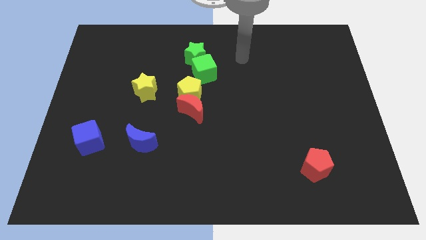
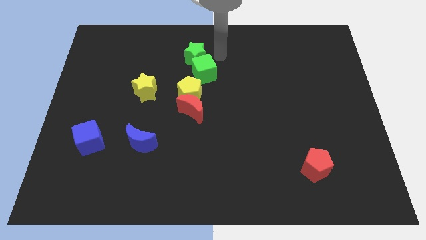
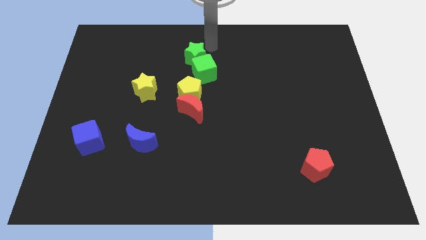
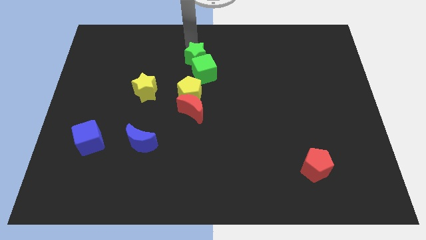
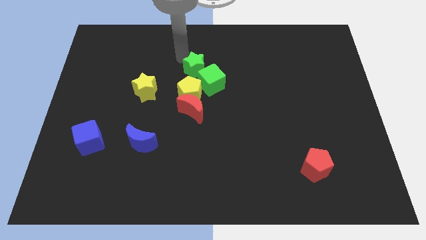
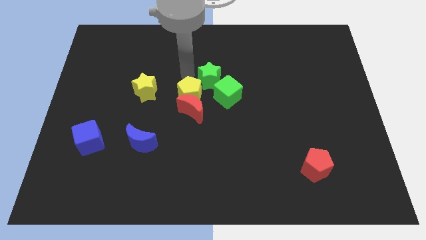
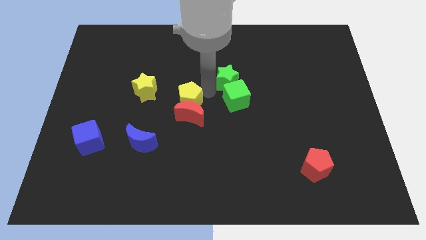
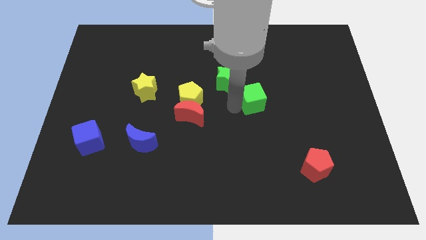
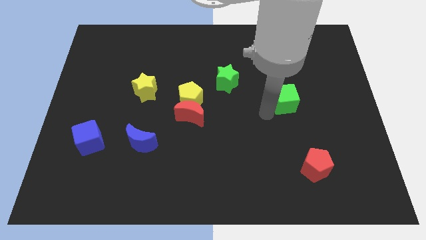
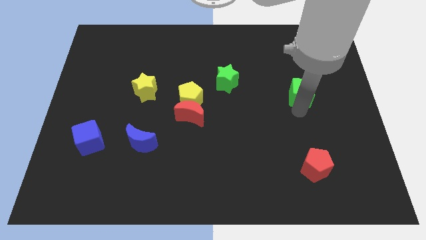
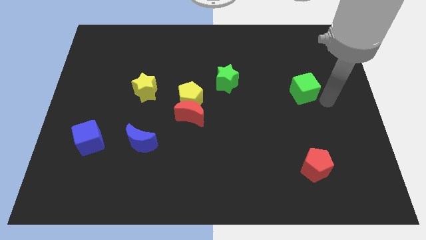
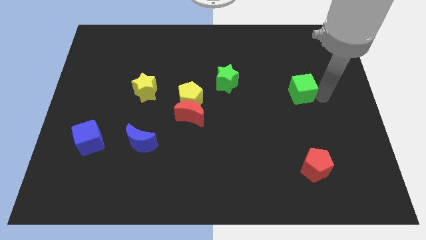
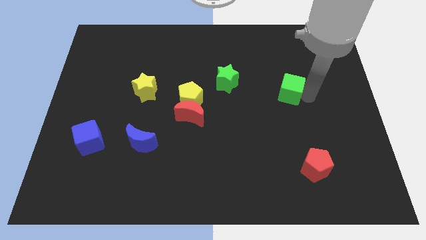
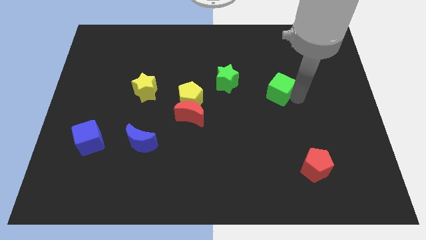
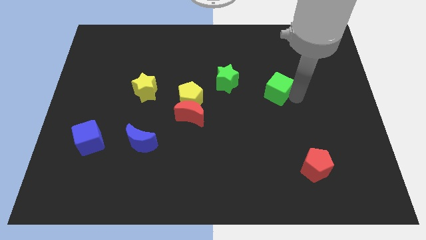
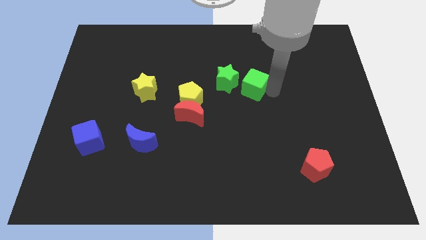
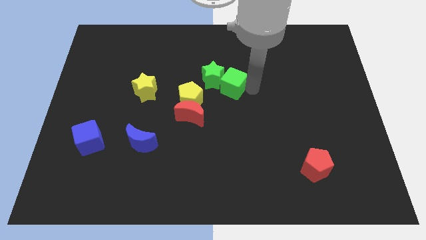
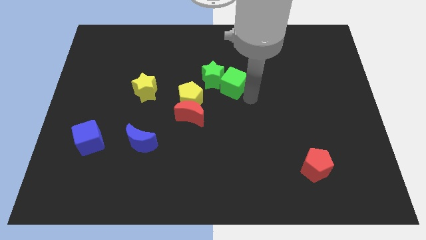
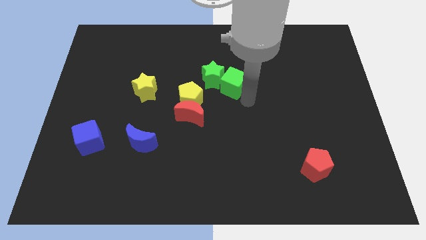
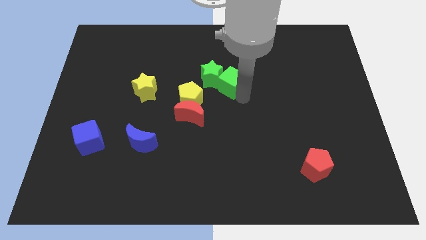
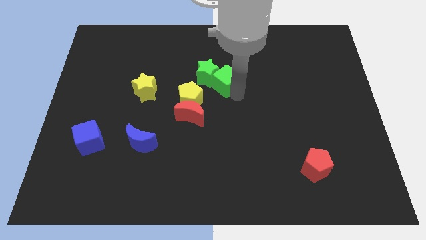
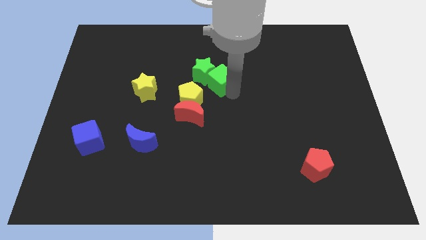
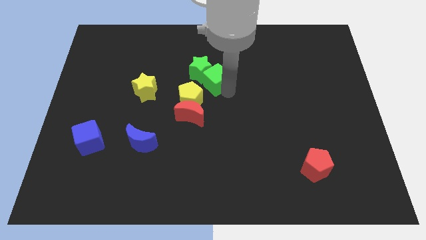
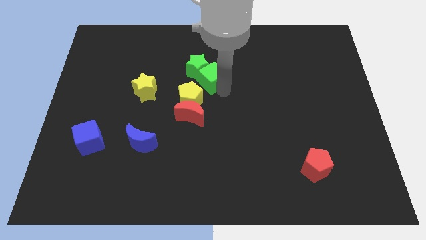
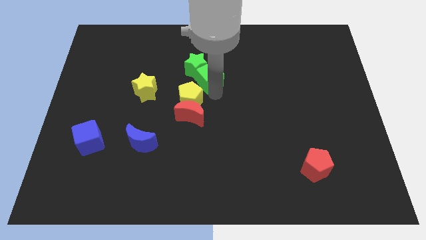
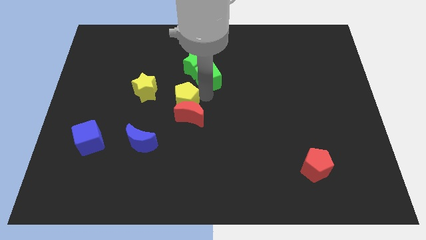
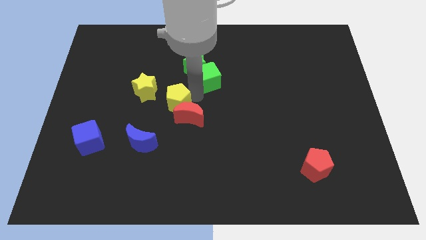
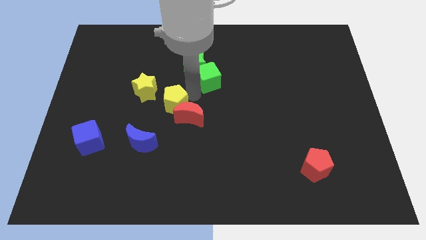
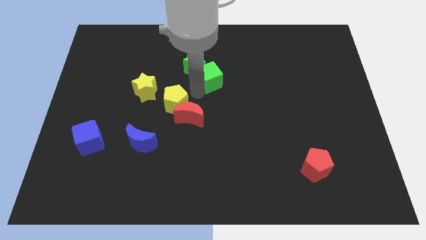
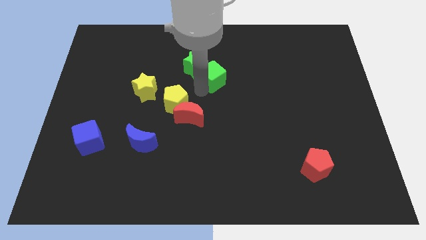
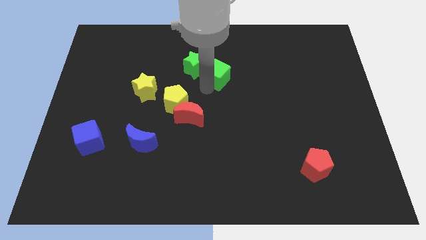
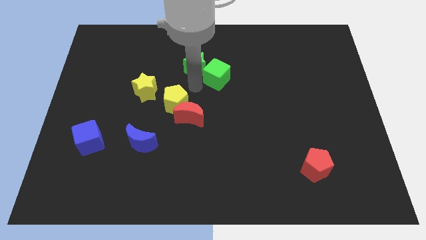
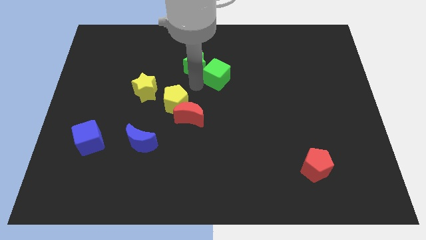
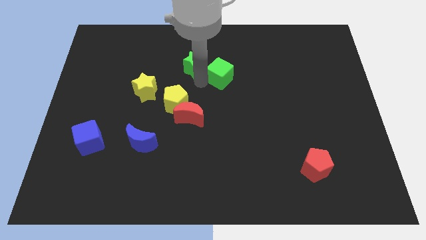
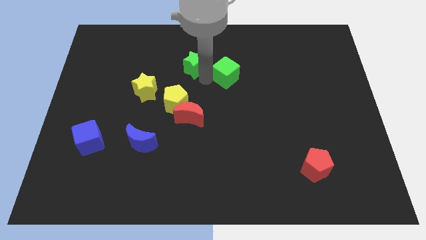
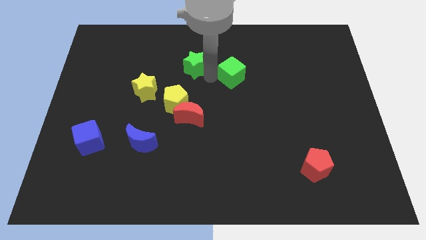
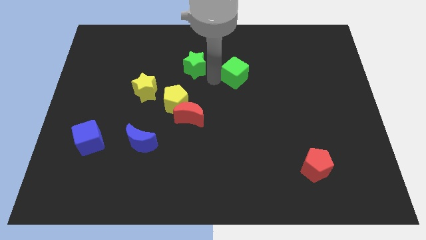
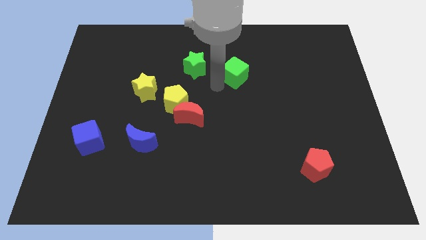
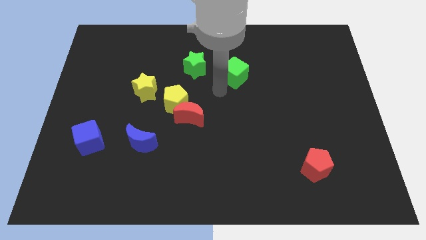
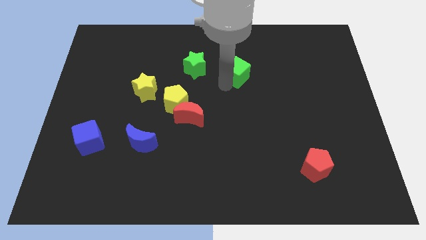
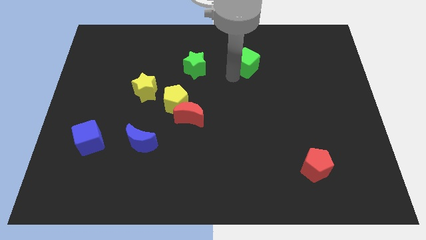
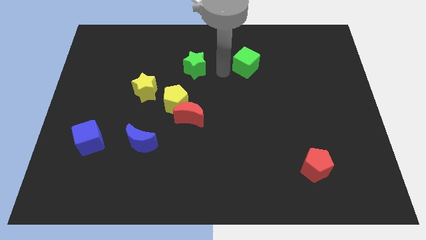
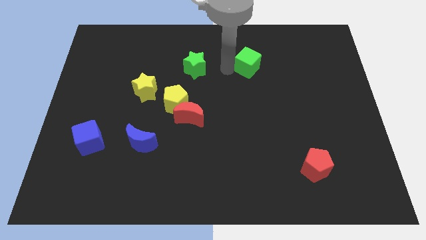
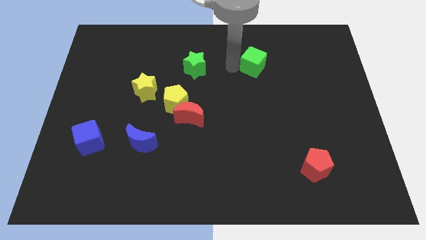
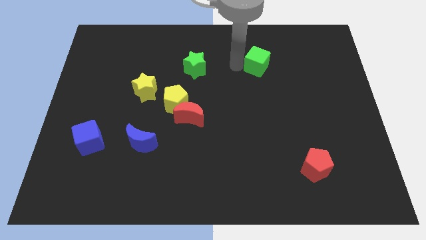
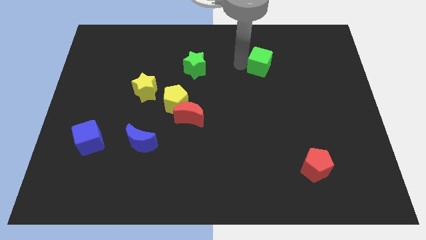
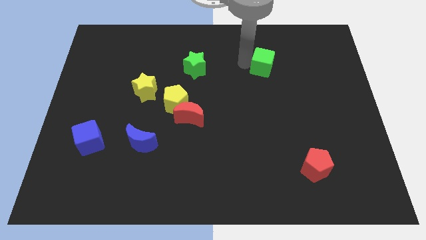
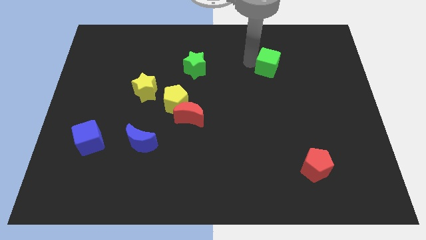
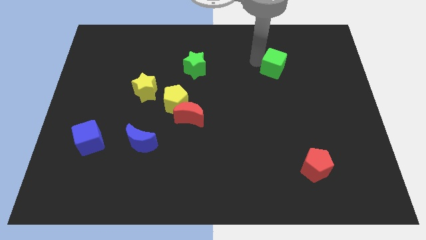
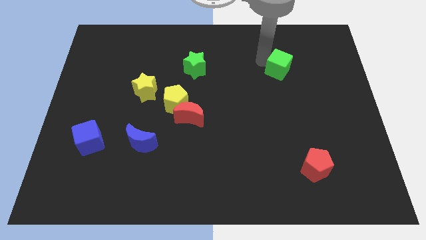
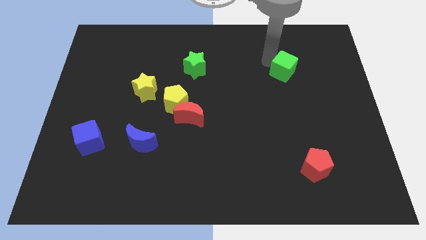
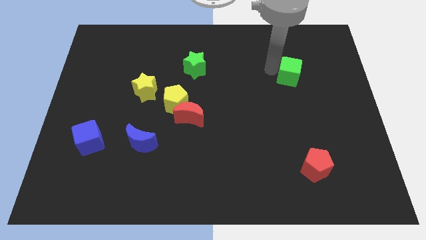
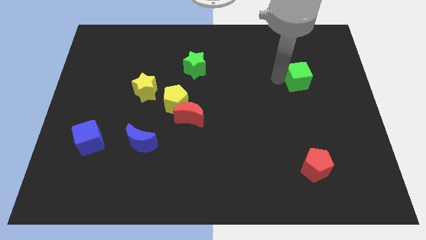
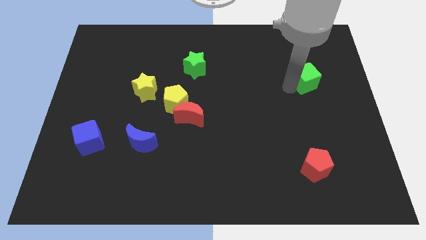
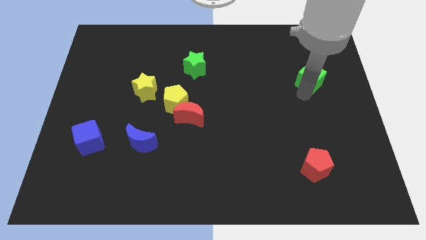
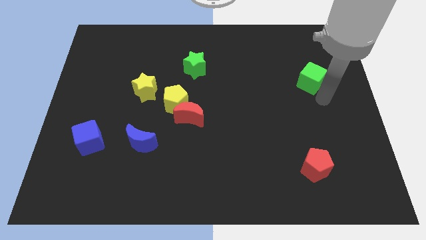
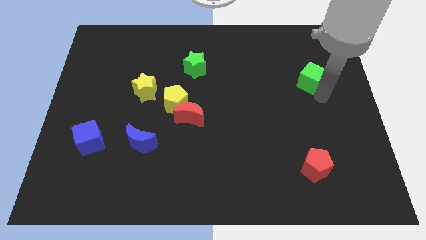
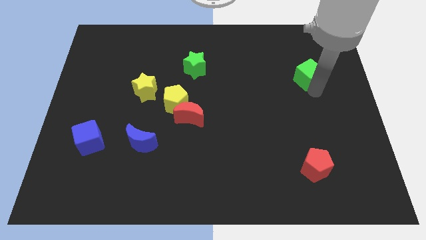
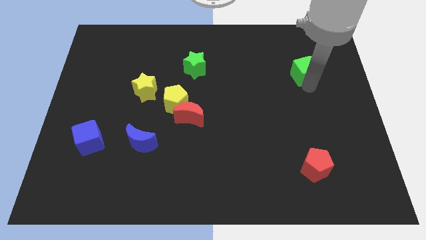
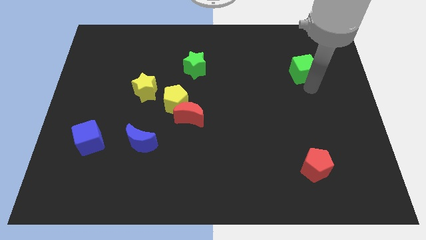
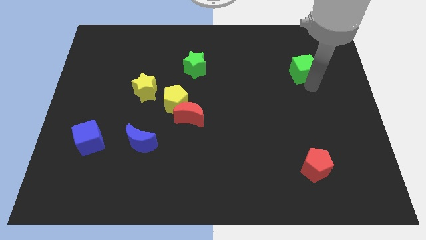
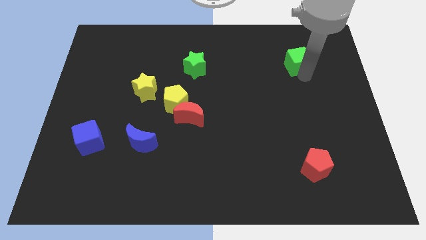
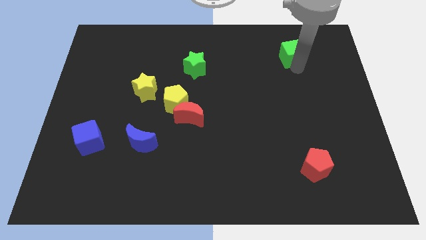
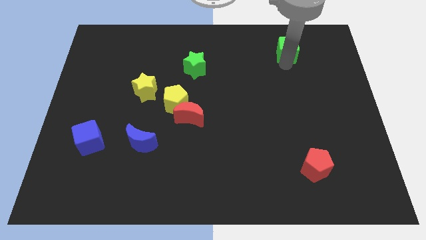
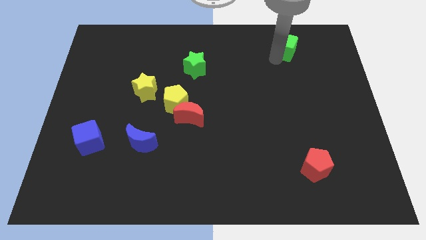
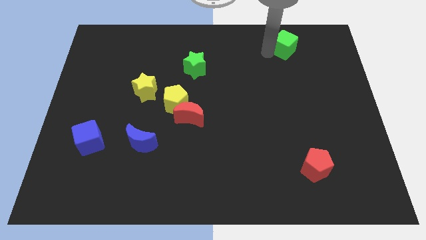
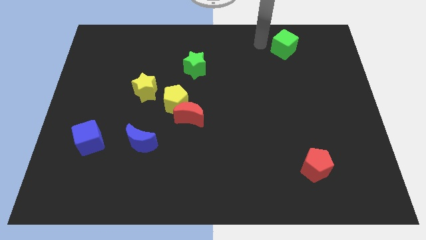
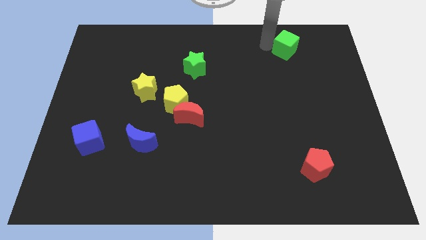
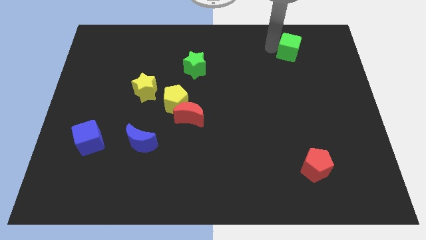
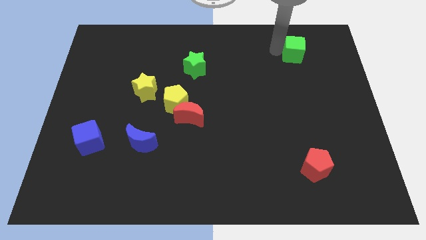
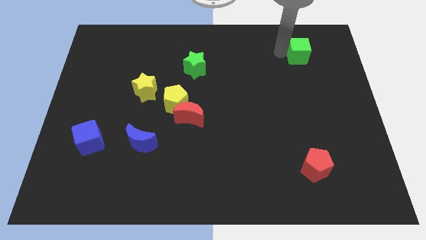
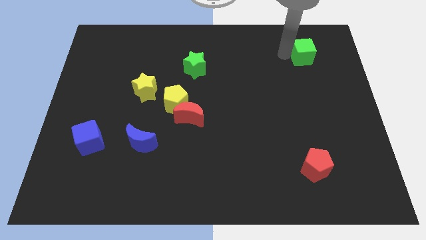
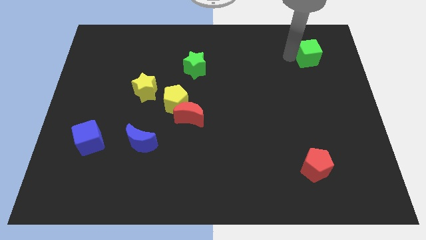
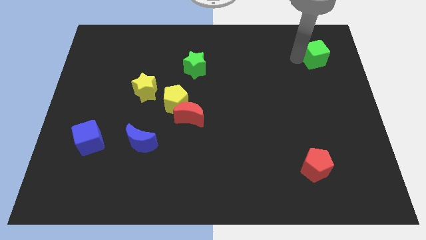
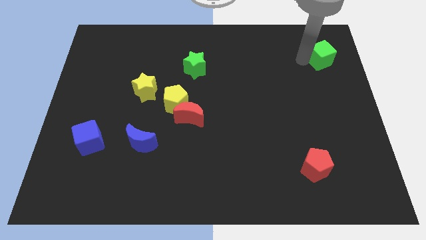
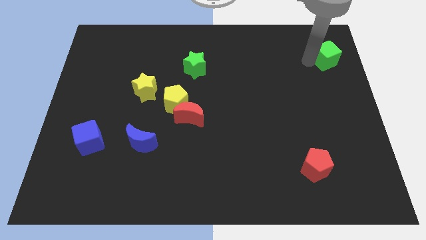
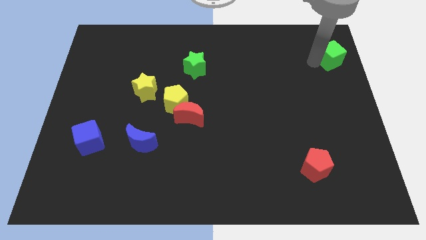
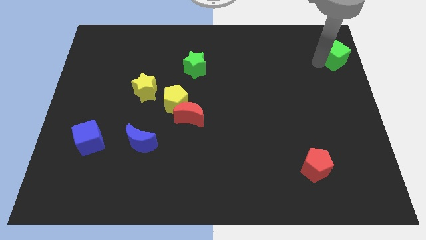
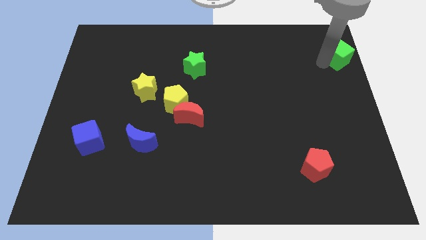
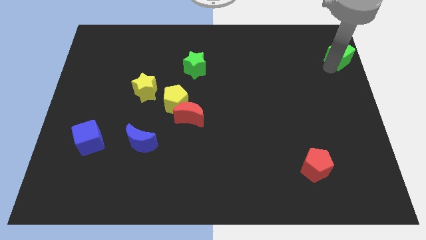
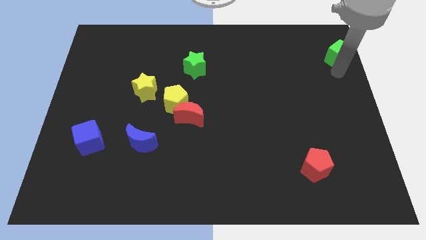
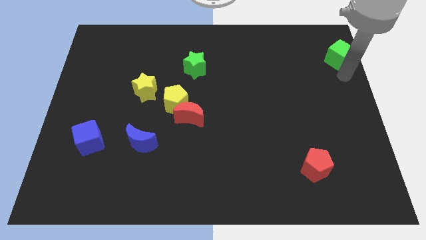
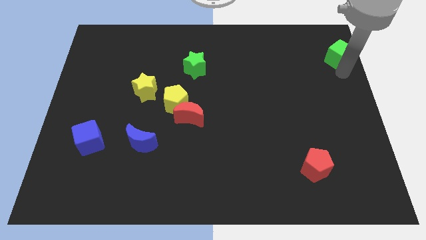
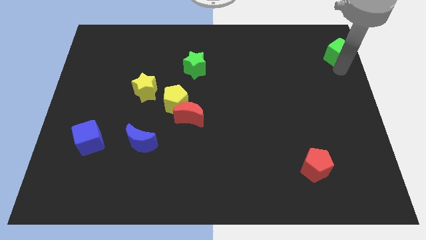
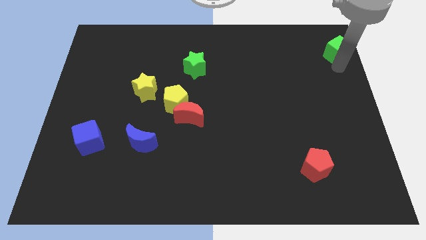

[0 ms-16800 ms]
push the green cube to the top right corner
